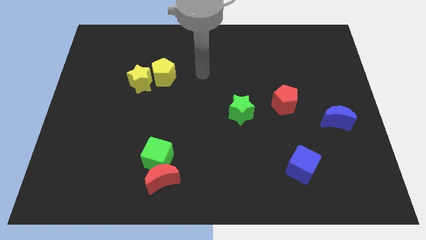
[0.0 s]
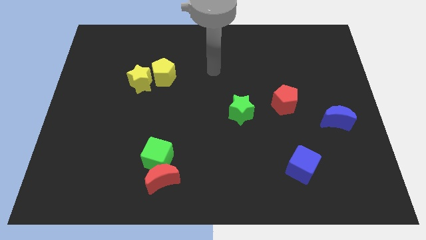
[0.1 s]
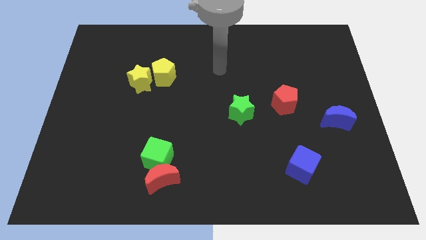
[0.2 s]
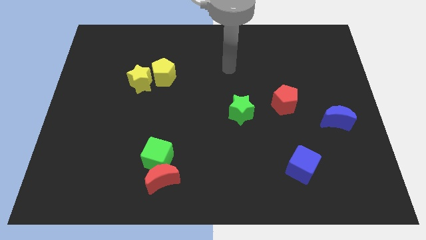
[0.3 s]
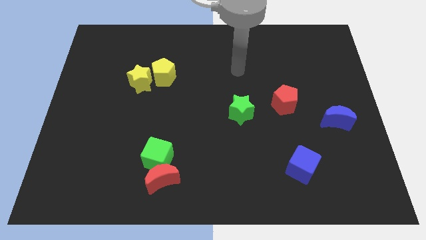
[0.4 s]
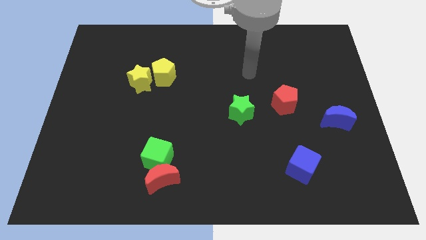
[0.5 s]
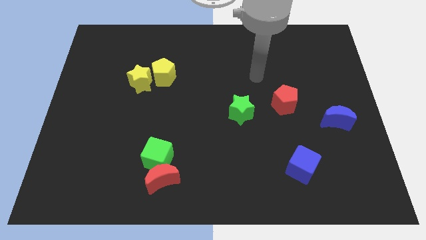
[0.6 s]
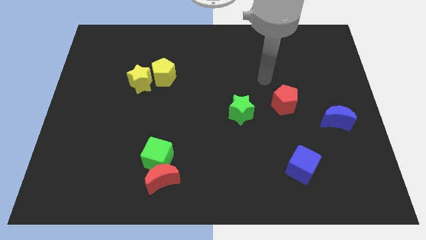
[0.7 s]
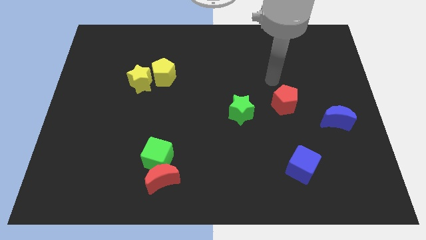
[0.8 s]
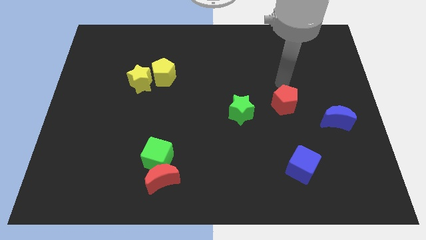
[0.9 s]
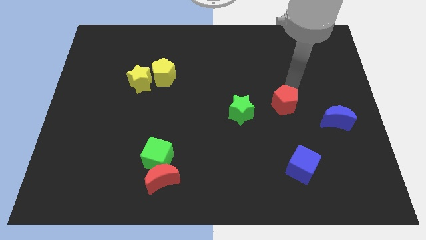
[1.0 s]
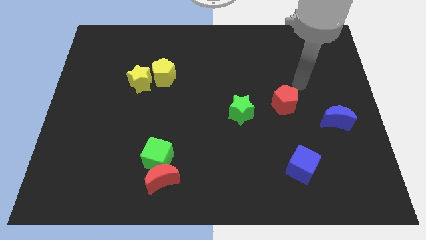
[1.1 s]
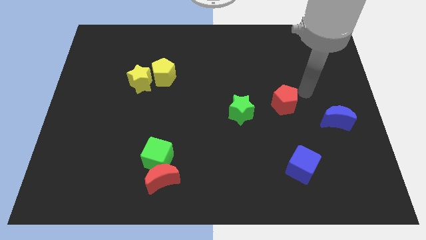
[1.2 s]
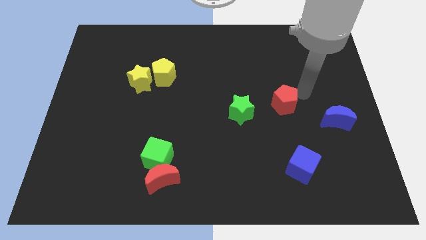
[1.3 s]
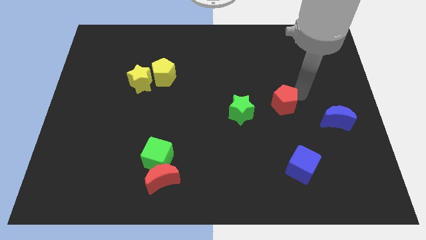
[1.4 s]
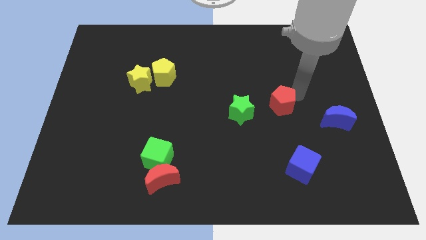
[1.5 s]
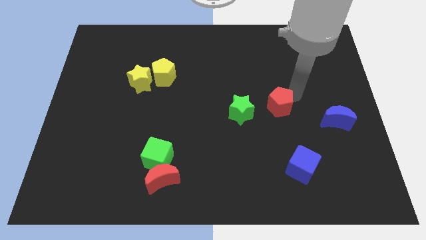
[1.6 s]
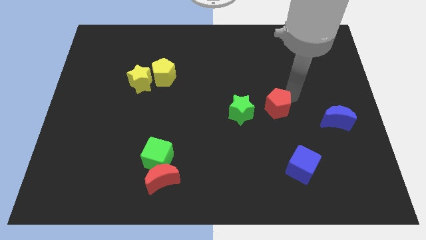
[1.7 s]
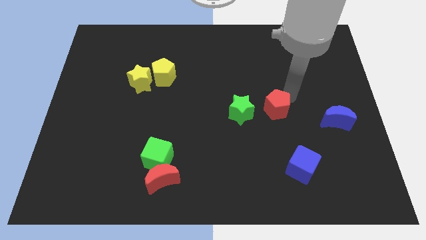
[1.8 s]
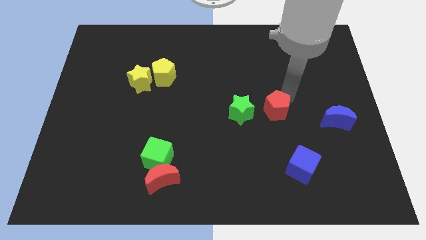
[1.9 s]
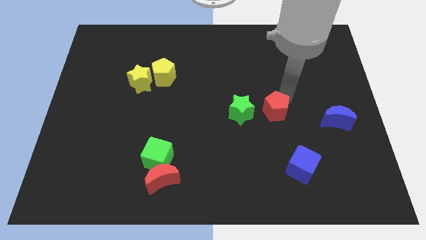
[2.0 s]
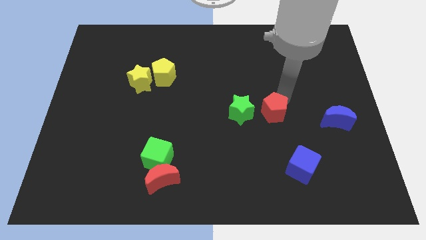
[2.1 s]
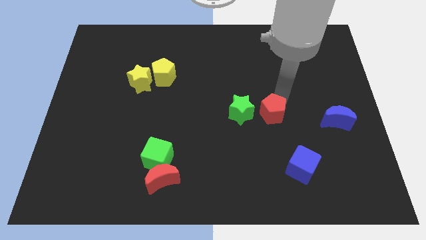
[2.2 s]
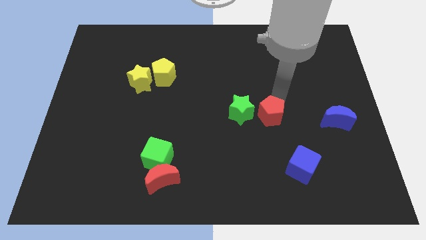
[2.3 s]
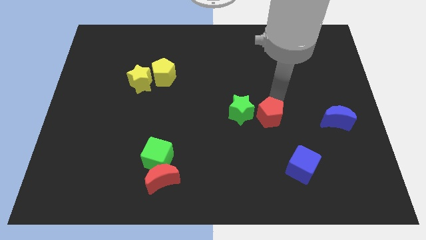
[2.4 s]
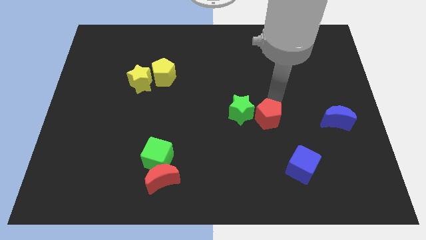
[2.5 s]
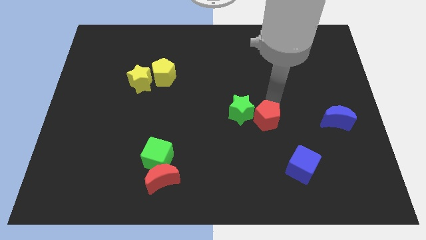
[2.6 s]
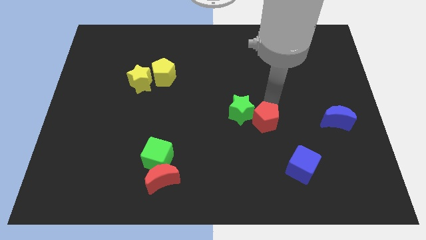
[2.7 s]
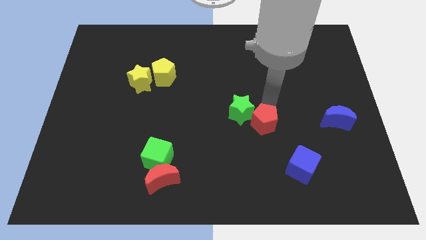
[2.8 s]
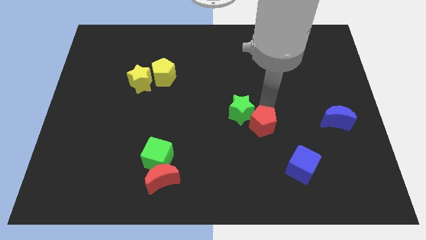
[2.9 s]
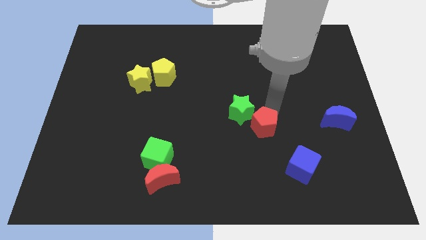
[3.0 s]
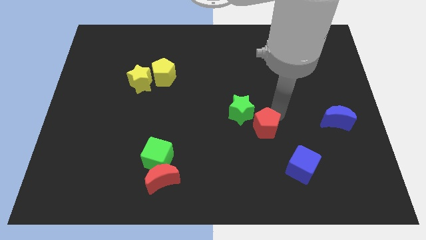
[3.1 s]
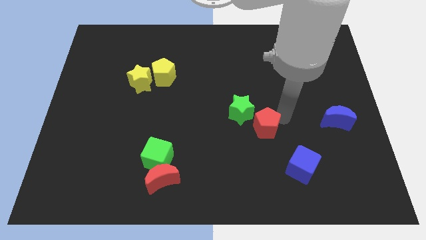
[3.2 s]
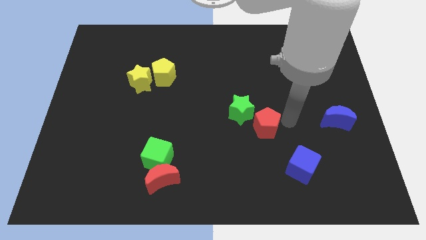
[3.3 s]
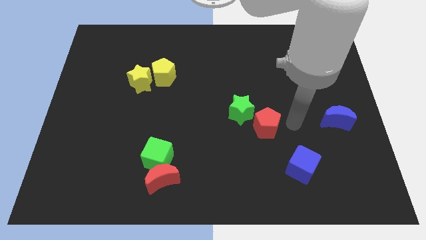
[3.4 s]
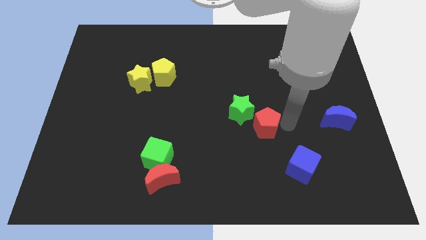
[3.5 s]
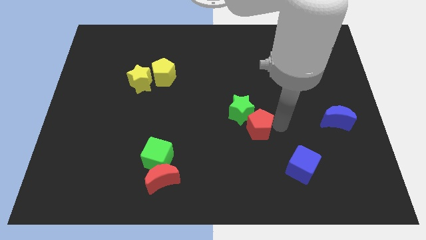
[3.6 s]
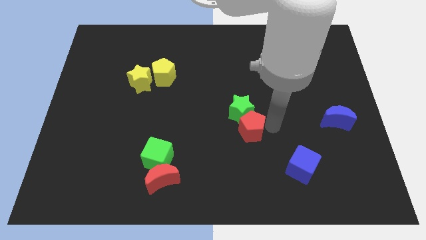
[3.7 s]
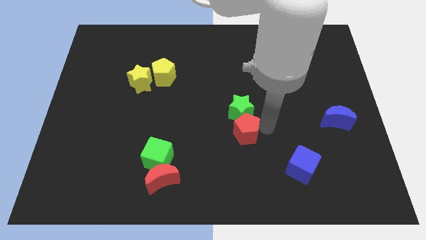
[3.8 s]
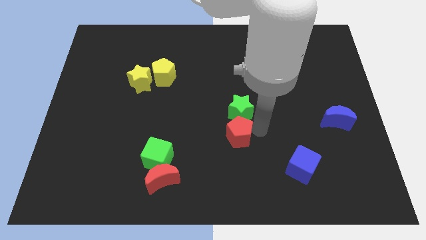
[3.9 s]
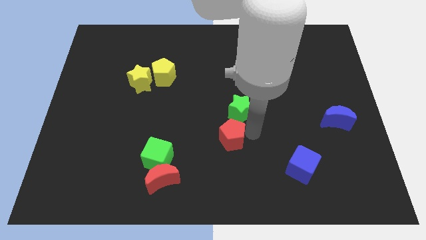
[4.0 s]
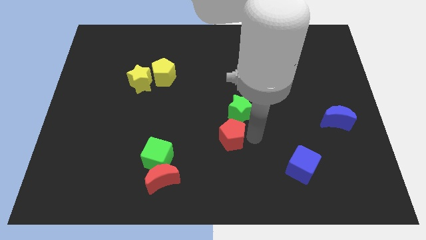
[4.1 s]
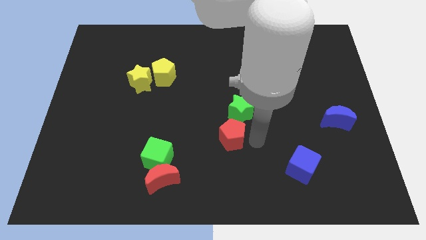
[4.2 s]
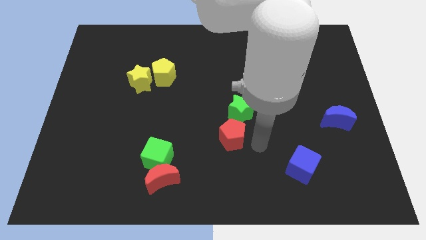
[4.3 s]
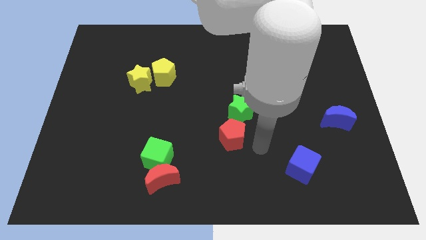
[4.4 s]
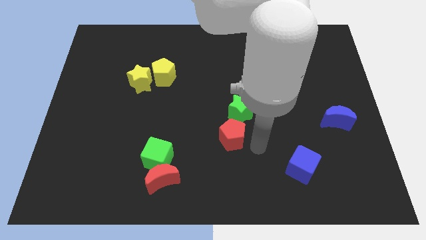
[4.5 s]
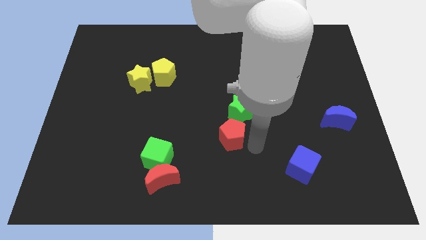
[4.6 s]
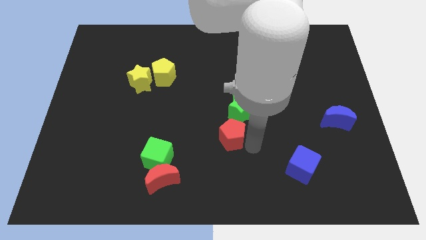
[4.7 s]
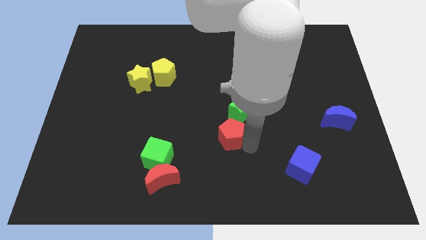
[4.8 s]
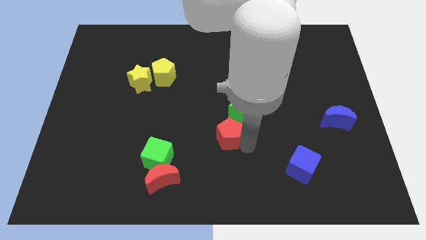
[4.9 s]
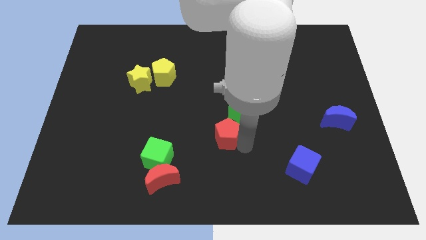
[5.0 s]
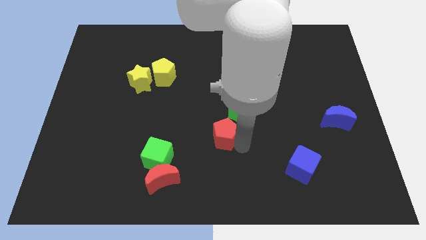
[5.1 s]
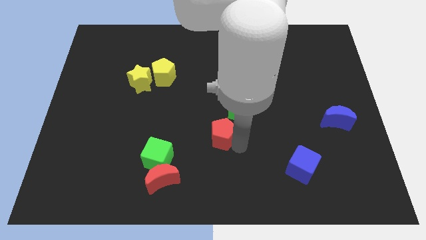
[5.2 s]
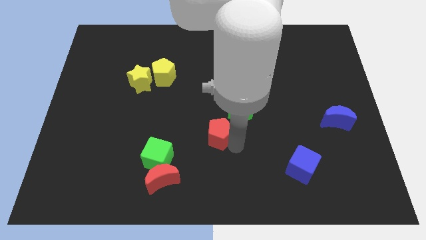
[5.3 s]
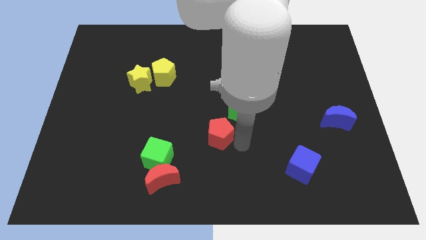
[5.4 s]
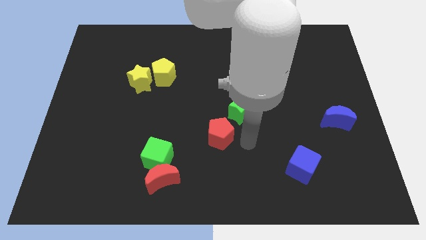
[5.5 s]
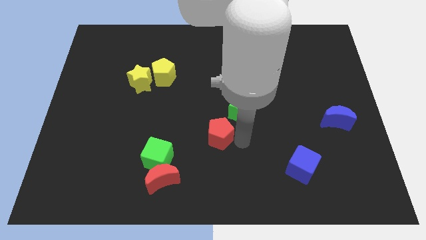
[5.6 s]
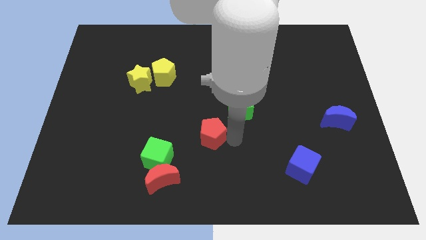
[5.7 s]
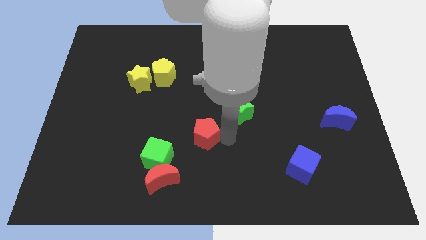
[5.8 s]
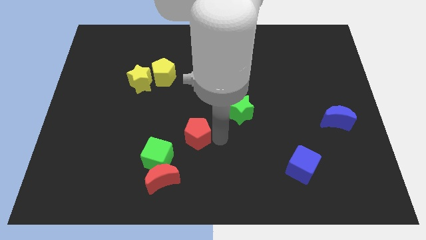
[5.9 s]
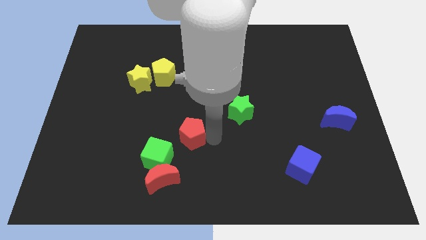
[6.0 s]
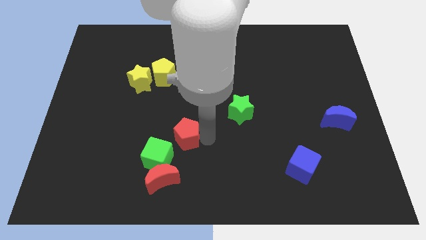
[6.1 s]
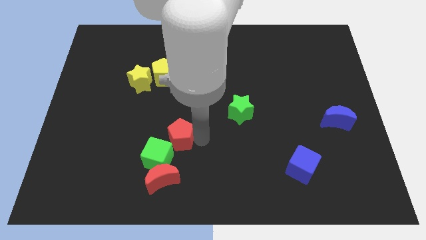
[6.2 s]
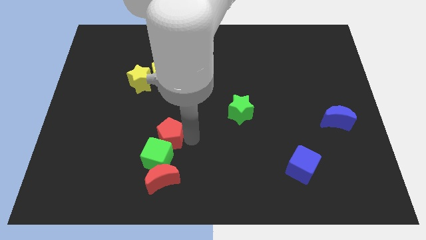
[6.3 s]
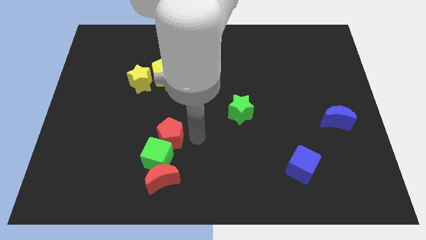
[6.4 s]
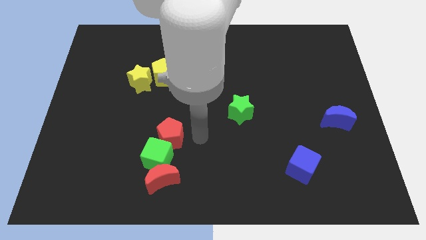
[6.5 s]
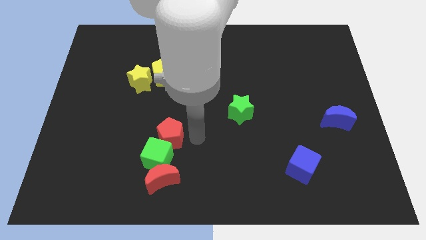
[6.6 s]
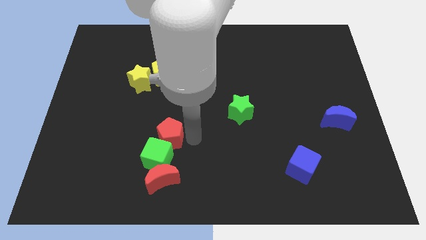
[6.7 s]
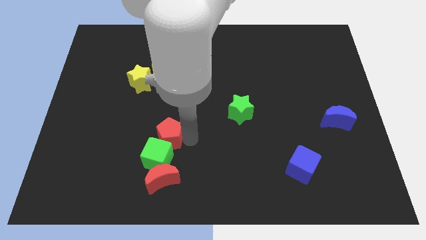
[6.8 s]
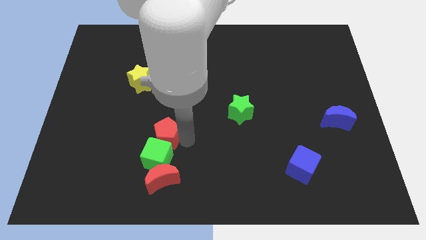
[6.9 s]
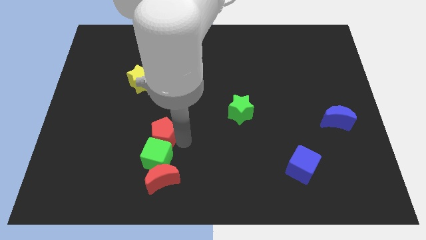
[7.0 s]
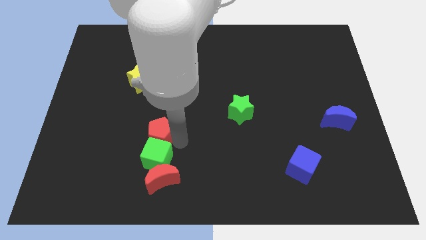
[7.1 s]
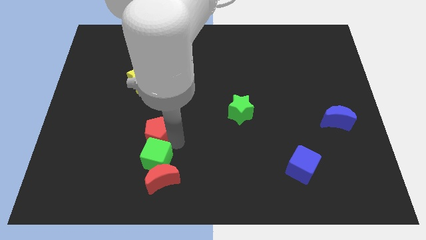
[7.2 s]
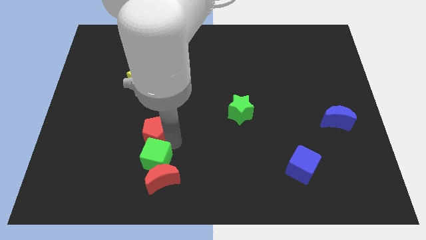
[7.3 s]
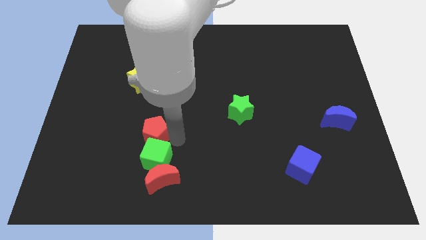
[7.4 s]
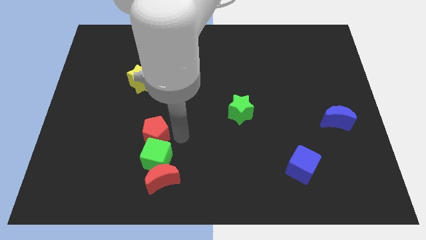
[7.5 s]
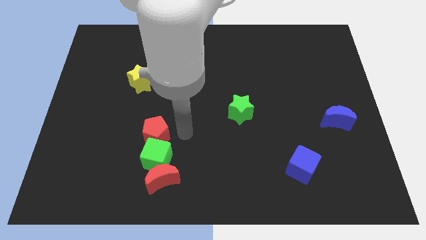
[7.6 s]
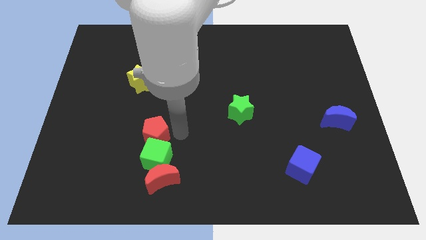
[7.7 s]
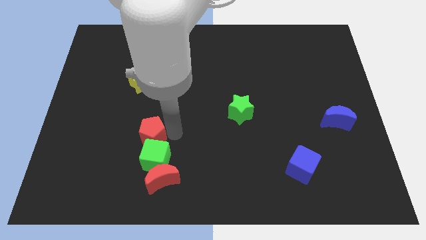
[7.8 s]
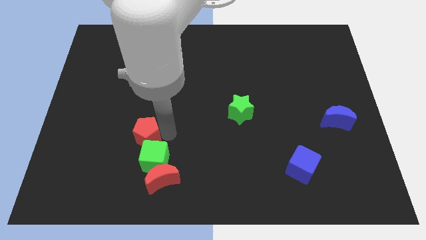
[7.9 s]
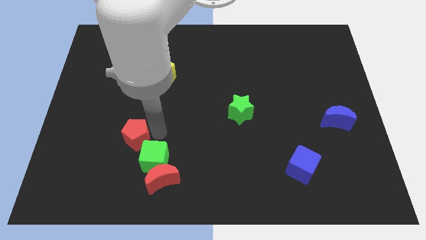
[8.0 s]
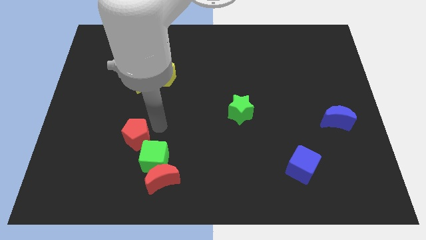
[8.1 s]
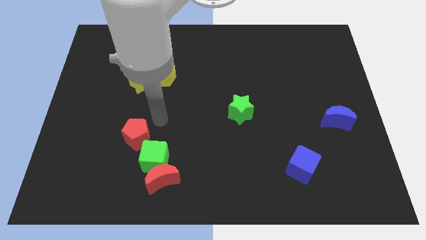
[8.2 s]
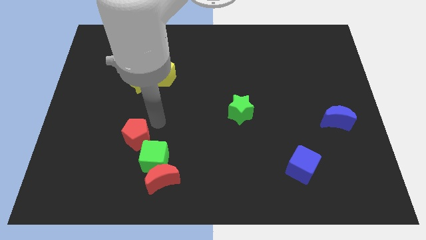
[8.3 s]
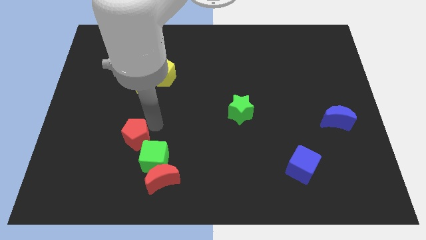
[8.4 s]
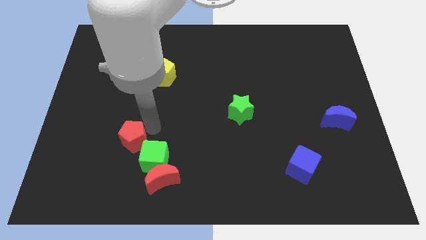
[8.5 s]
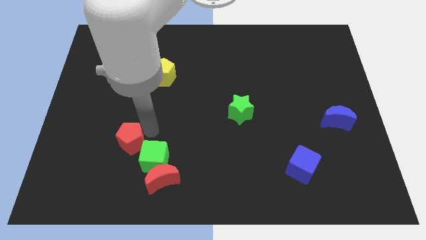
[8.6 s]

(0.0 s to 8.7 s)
put the red pentagon to the left of the green cube
